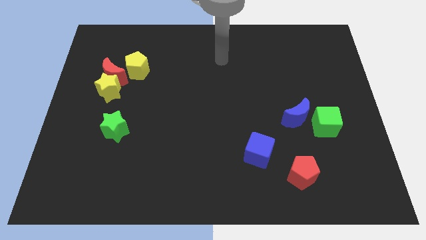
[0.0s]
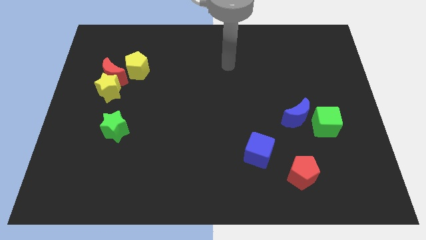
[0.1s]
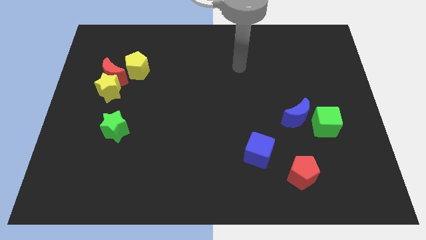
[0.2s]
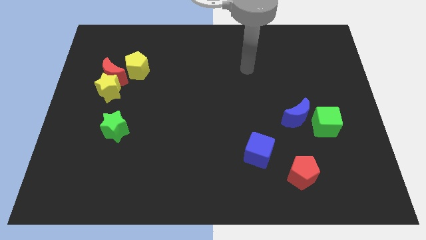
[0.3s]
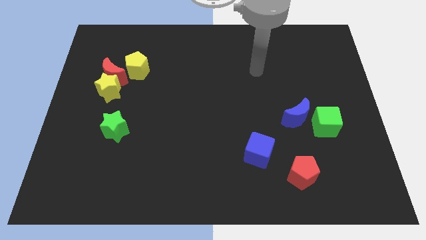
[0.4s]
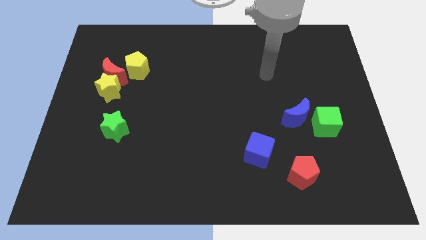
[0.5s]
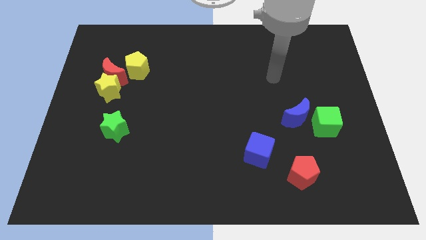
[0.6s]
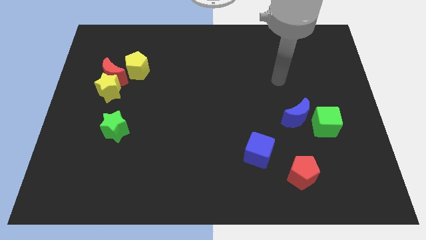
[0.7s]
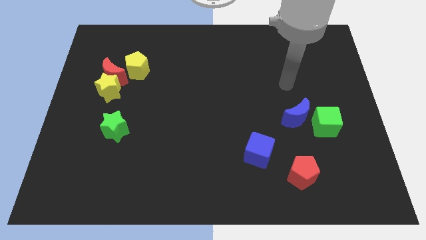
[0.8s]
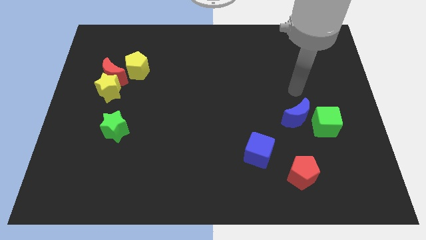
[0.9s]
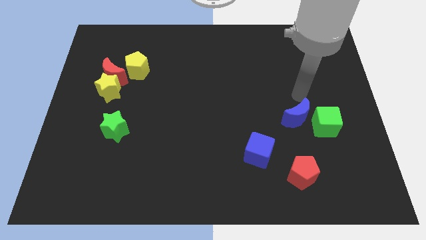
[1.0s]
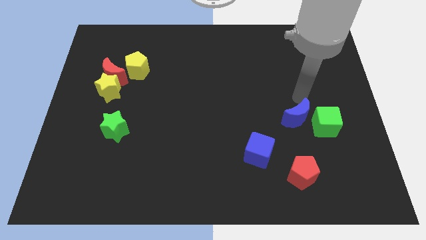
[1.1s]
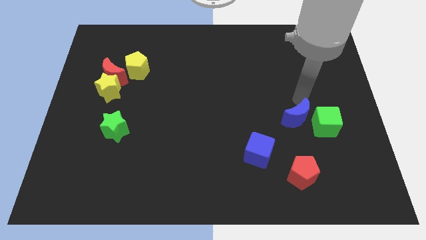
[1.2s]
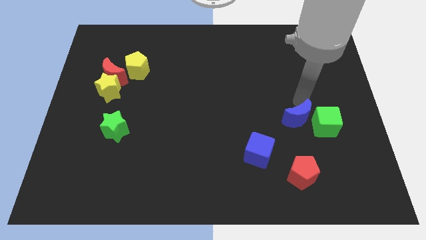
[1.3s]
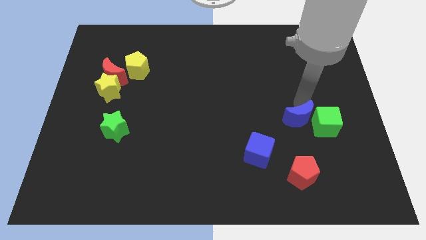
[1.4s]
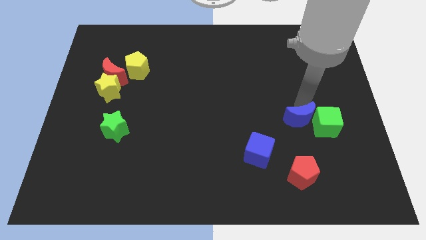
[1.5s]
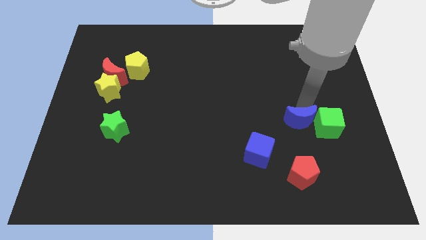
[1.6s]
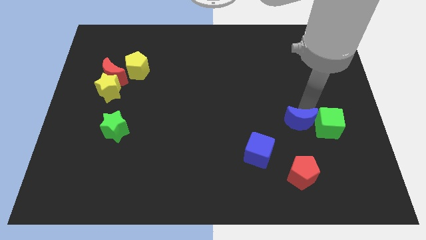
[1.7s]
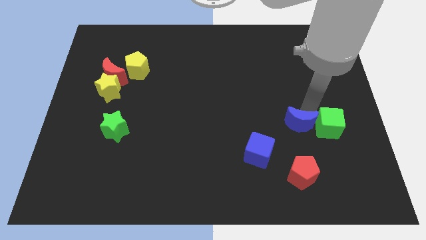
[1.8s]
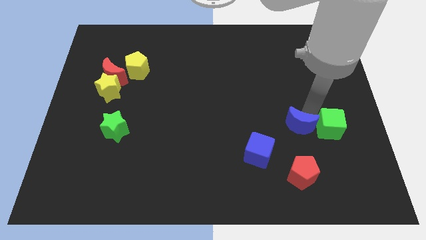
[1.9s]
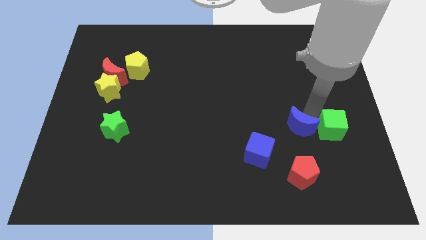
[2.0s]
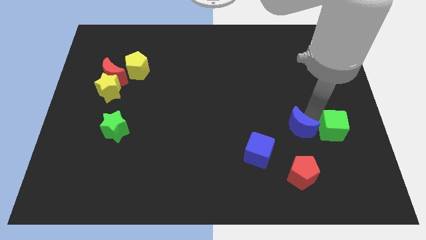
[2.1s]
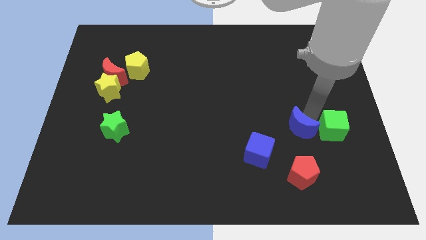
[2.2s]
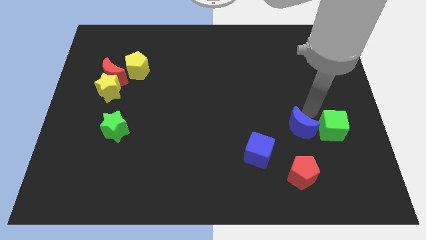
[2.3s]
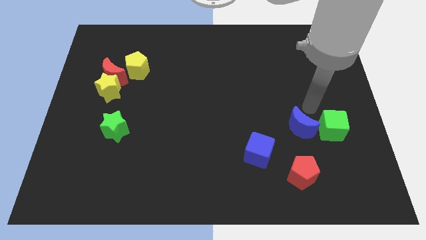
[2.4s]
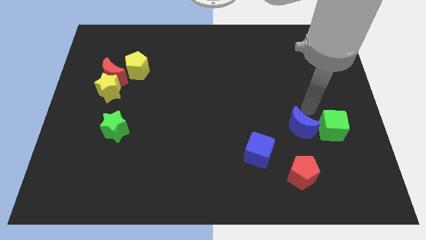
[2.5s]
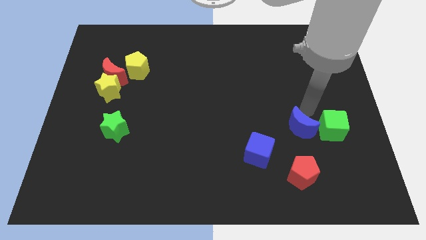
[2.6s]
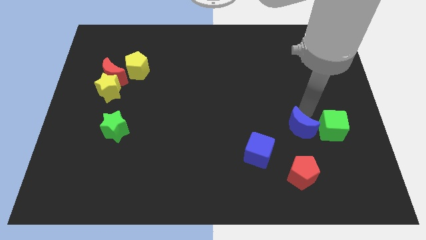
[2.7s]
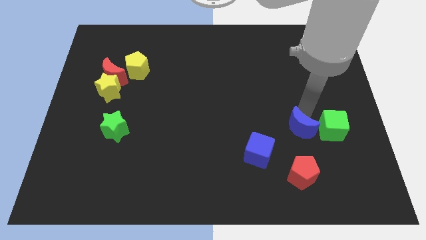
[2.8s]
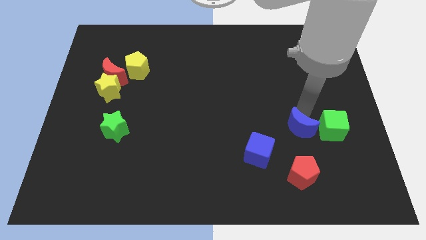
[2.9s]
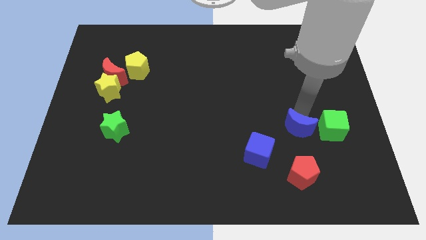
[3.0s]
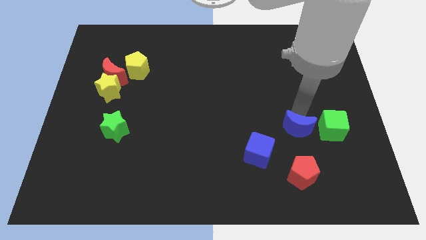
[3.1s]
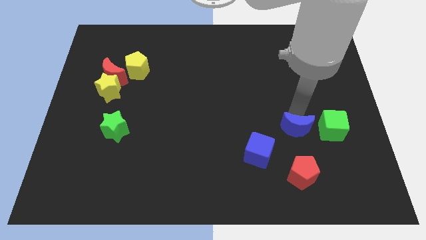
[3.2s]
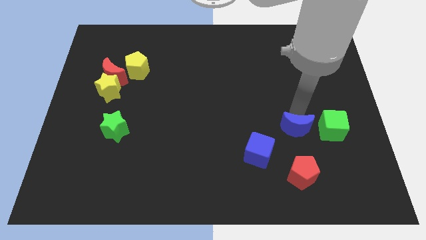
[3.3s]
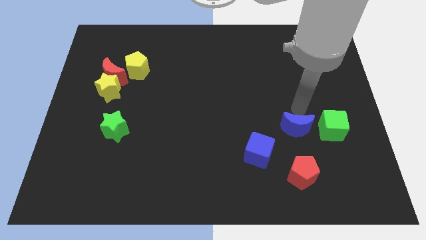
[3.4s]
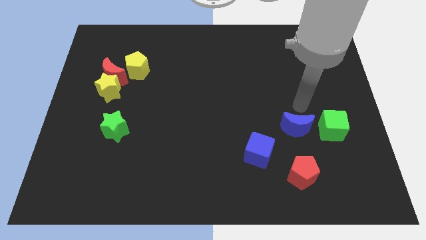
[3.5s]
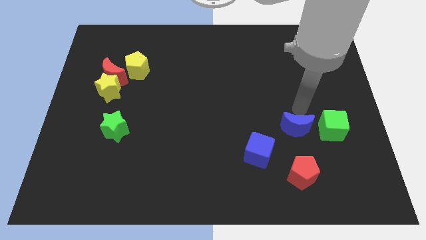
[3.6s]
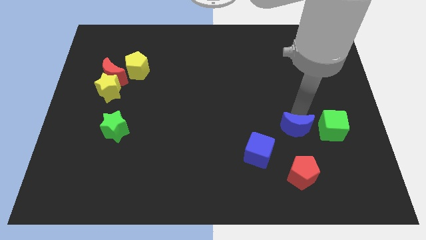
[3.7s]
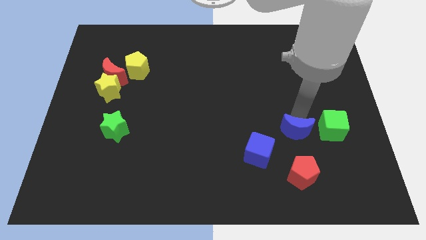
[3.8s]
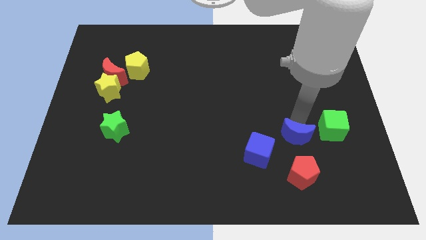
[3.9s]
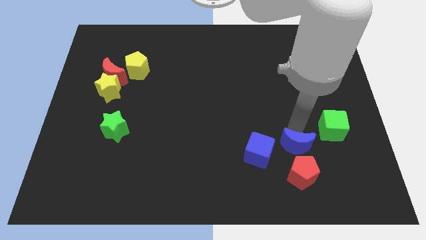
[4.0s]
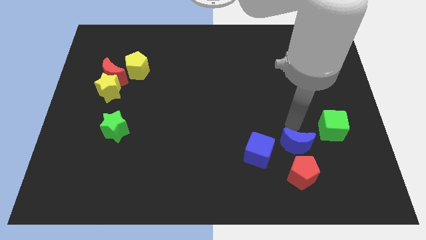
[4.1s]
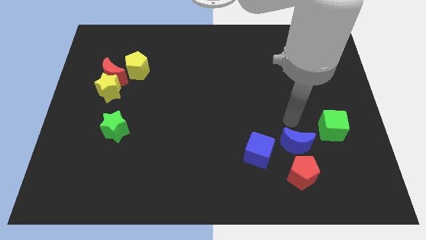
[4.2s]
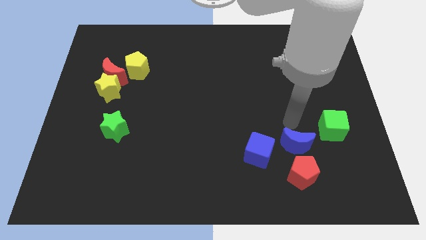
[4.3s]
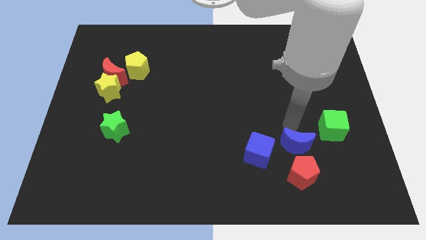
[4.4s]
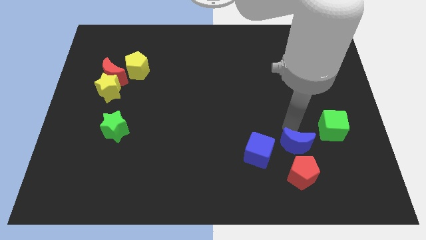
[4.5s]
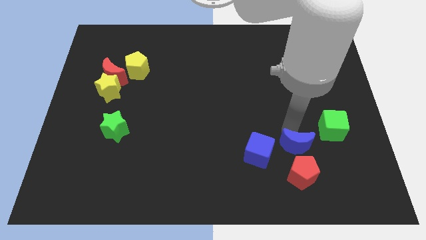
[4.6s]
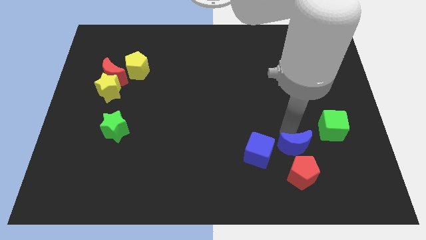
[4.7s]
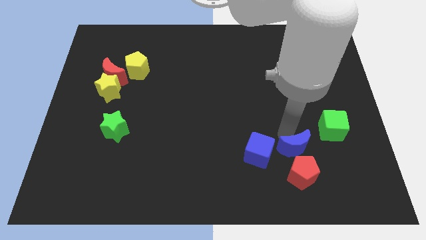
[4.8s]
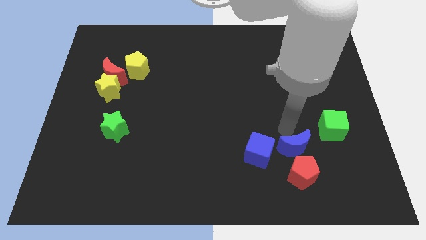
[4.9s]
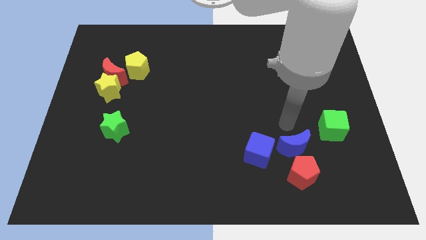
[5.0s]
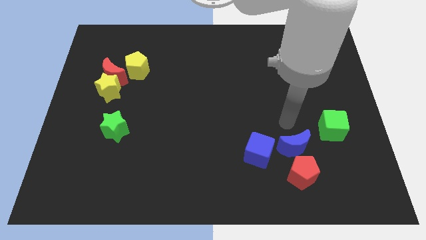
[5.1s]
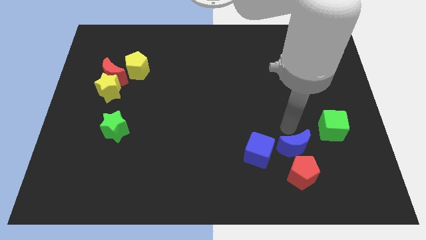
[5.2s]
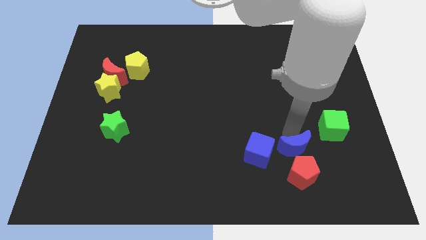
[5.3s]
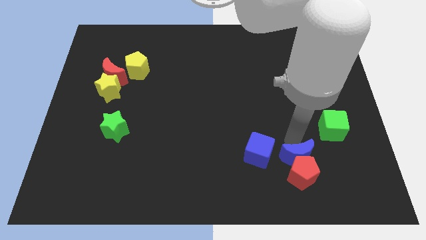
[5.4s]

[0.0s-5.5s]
push the blue moon close to the red pentagon

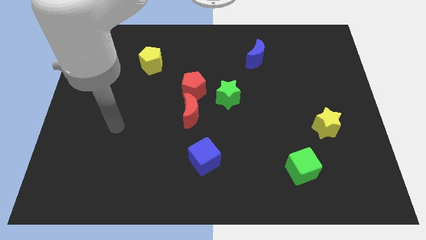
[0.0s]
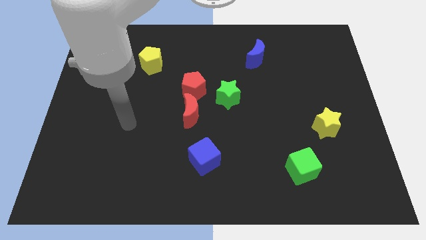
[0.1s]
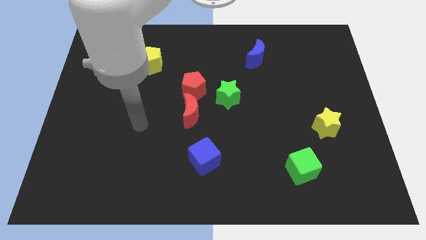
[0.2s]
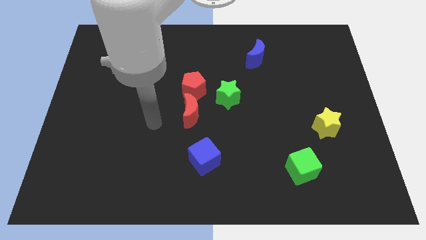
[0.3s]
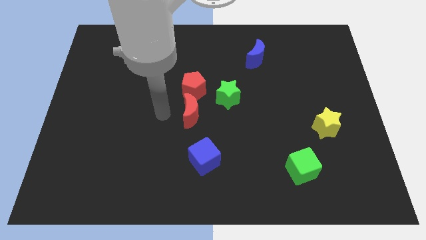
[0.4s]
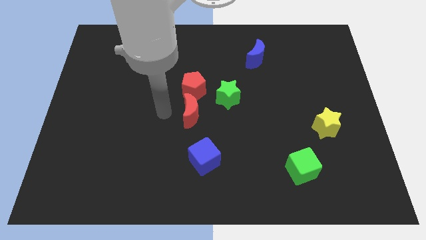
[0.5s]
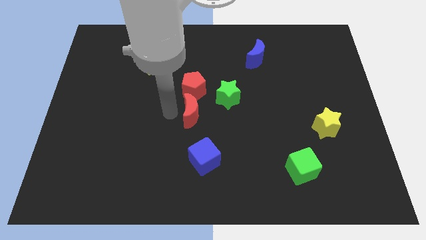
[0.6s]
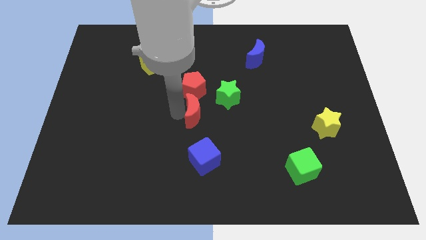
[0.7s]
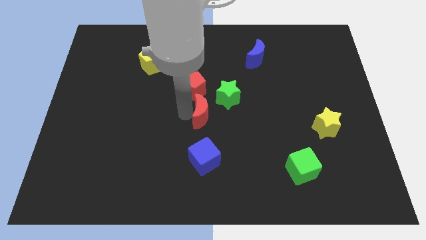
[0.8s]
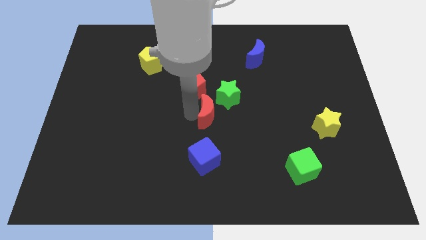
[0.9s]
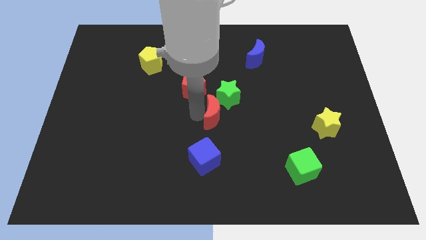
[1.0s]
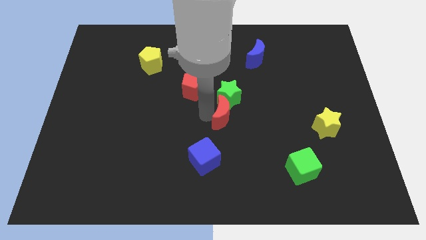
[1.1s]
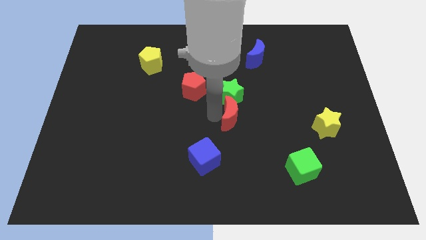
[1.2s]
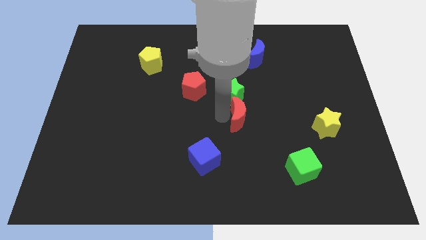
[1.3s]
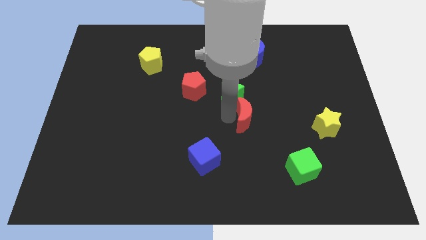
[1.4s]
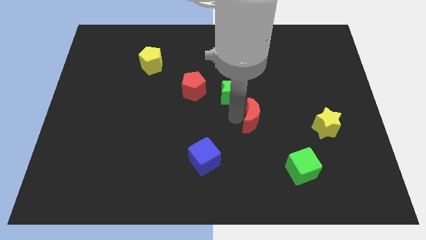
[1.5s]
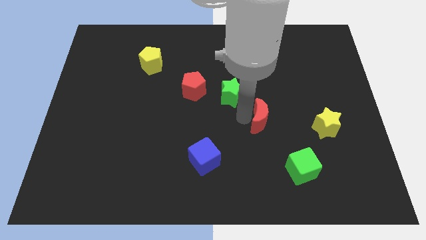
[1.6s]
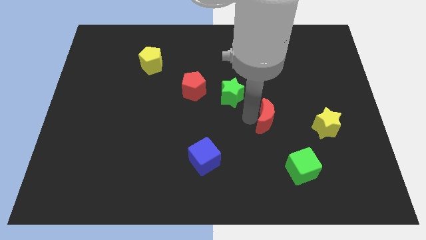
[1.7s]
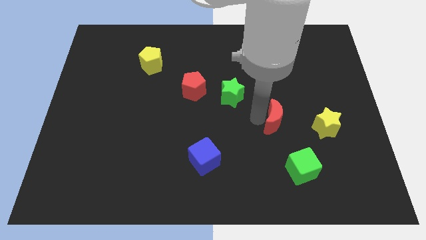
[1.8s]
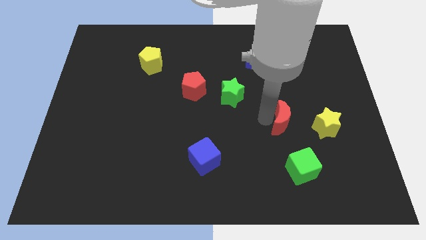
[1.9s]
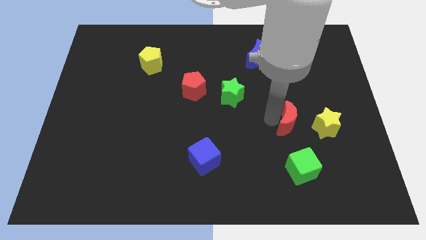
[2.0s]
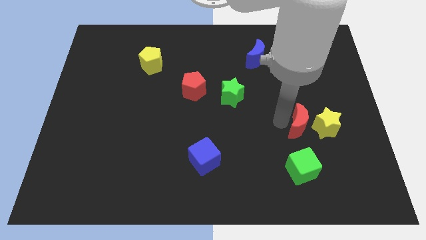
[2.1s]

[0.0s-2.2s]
put the red moon to the yellow star

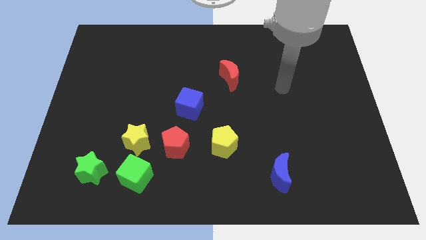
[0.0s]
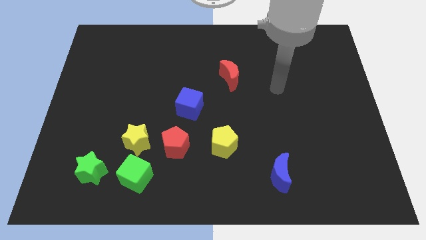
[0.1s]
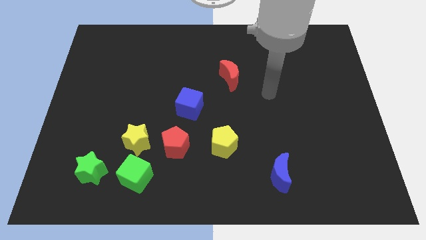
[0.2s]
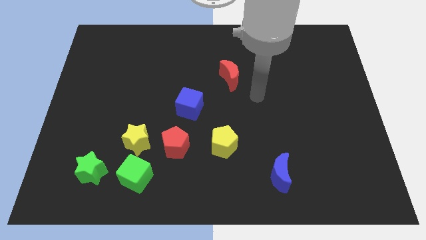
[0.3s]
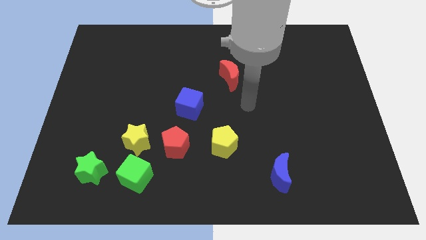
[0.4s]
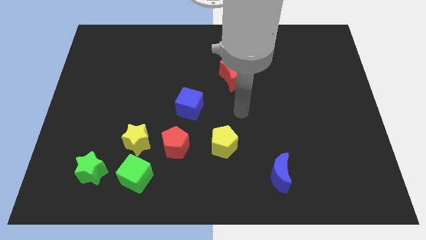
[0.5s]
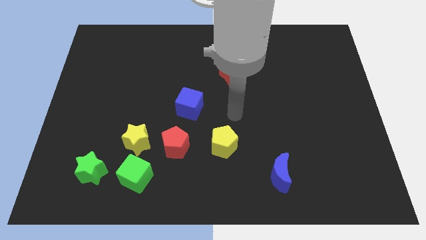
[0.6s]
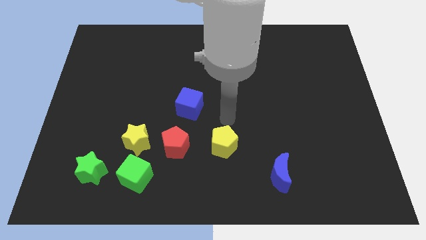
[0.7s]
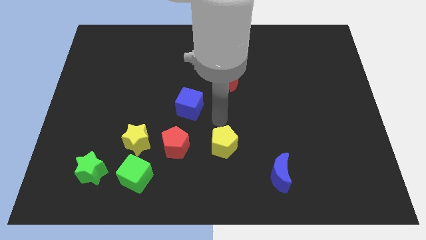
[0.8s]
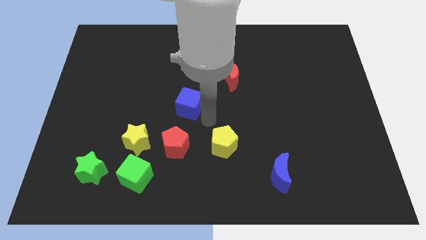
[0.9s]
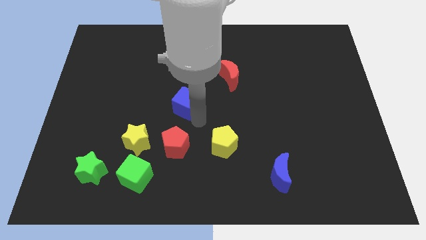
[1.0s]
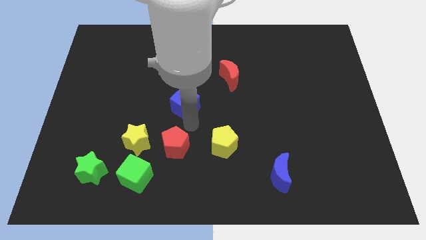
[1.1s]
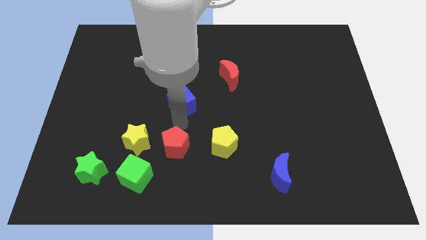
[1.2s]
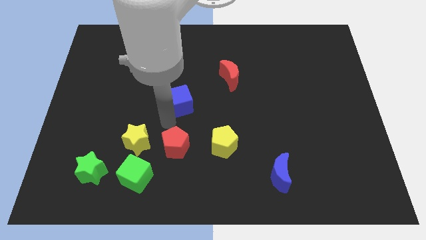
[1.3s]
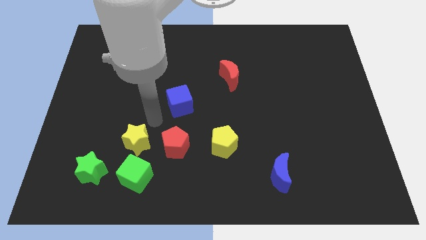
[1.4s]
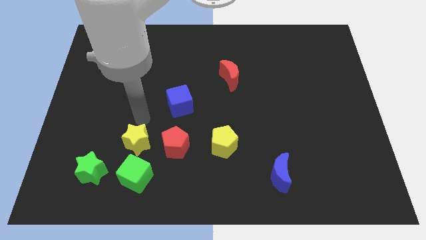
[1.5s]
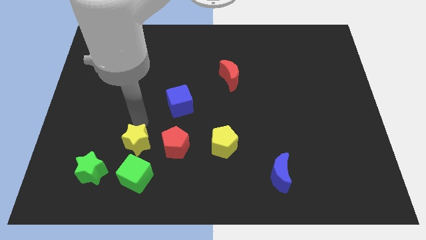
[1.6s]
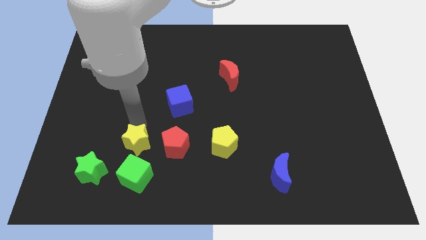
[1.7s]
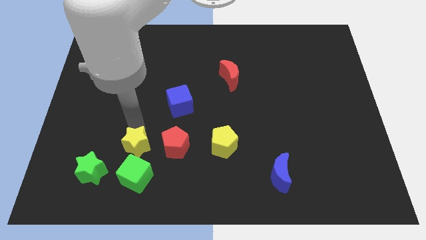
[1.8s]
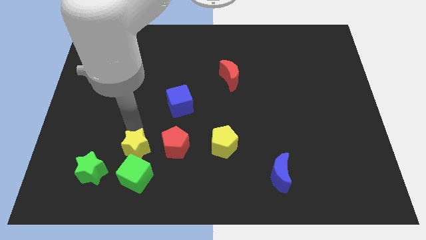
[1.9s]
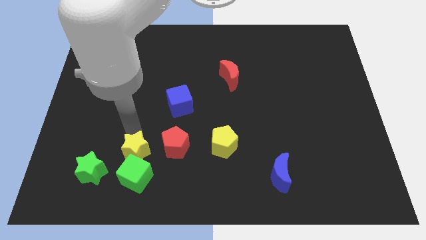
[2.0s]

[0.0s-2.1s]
move the yellow star close to the green cube
